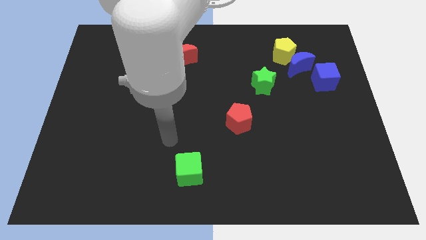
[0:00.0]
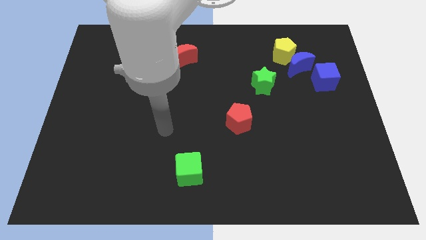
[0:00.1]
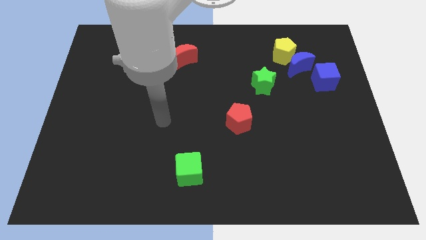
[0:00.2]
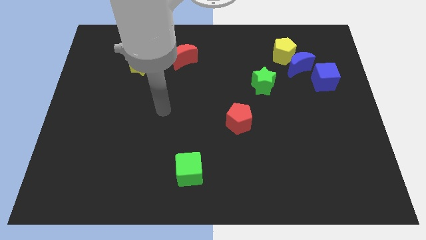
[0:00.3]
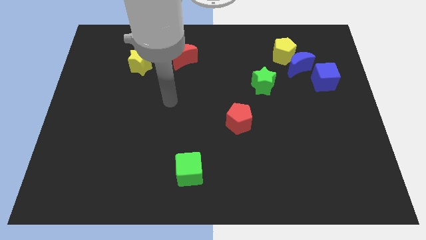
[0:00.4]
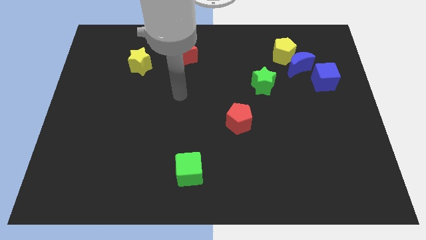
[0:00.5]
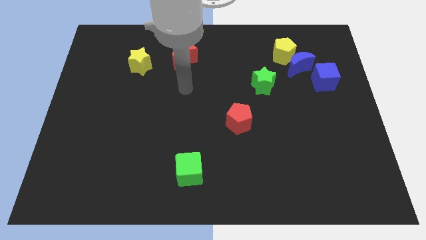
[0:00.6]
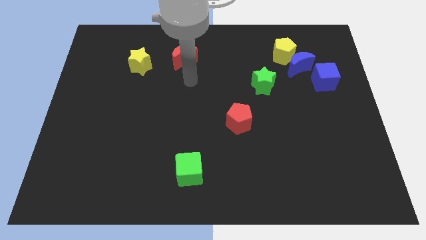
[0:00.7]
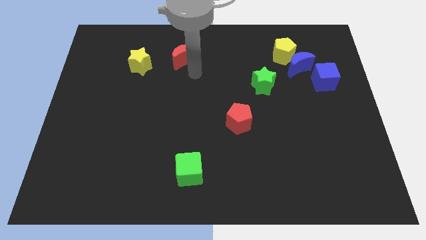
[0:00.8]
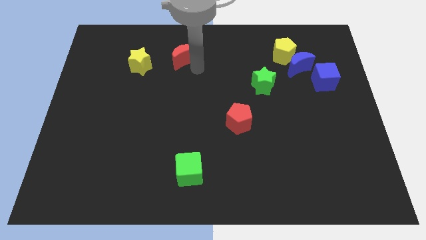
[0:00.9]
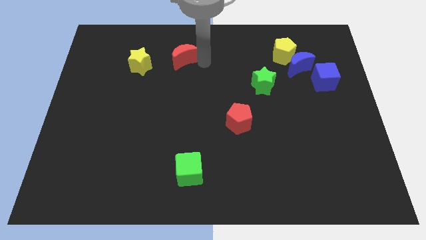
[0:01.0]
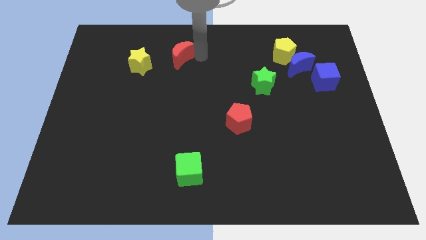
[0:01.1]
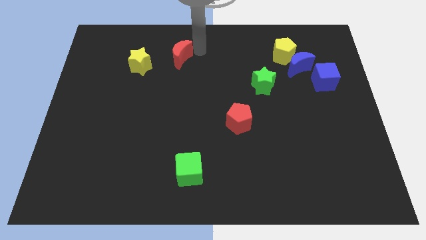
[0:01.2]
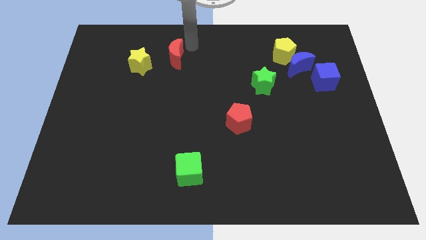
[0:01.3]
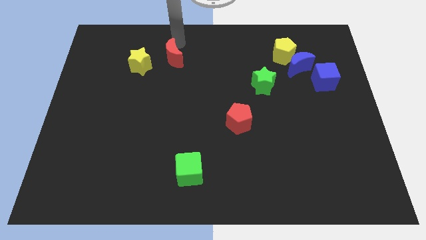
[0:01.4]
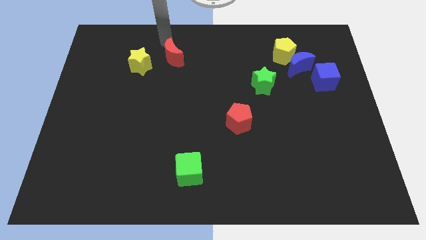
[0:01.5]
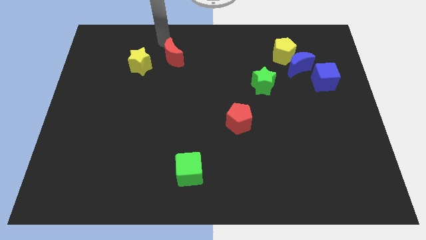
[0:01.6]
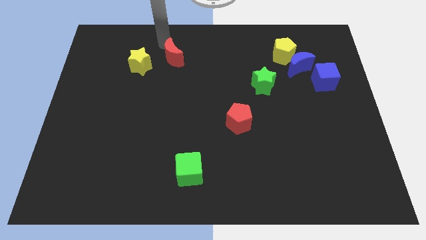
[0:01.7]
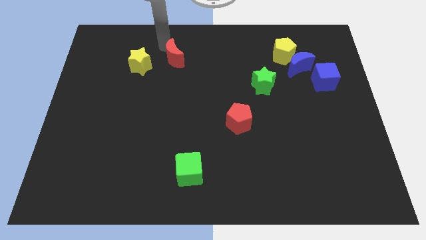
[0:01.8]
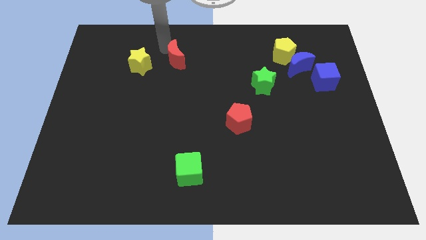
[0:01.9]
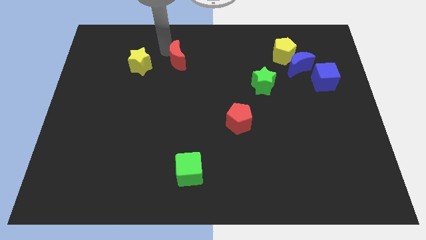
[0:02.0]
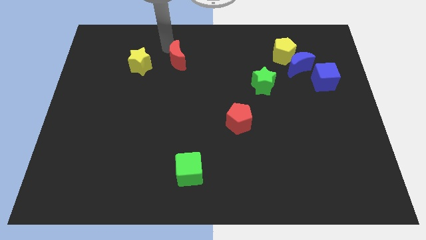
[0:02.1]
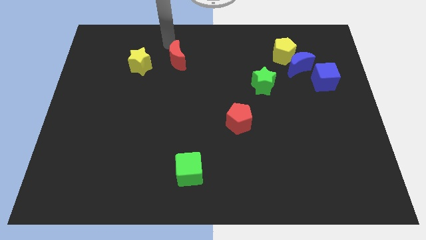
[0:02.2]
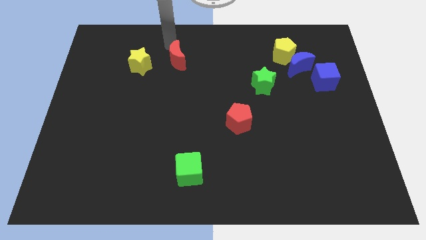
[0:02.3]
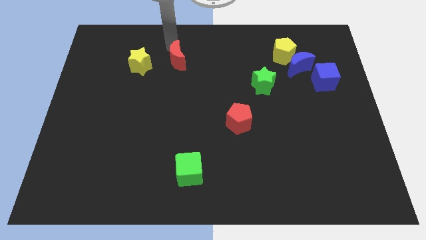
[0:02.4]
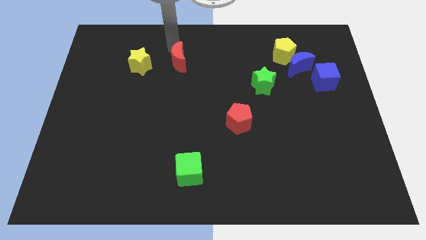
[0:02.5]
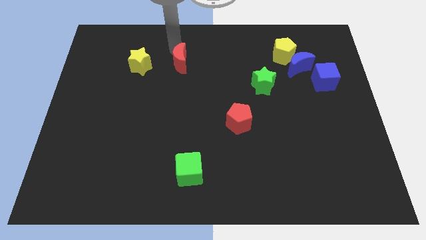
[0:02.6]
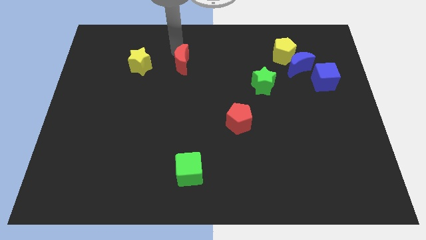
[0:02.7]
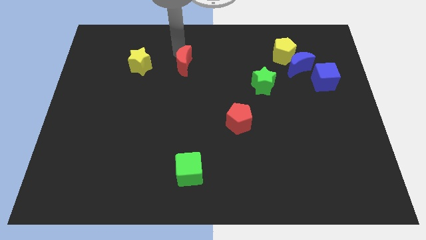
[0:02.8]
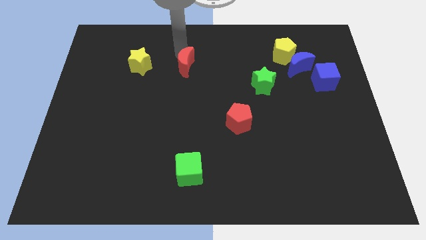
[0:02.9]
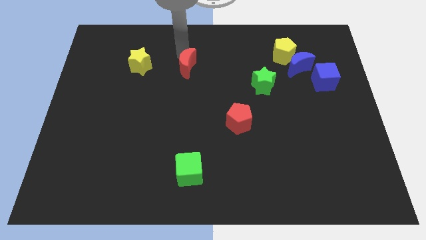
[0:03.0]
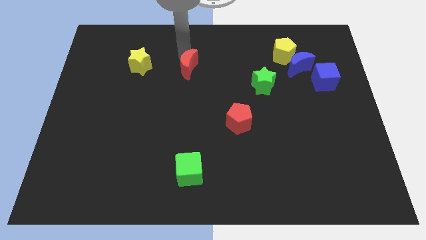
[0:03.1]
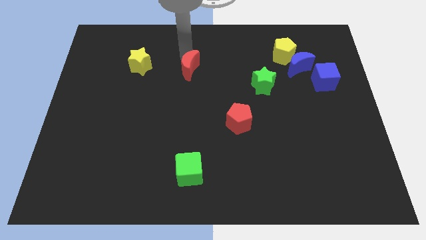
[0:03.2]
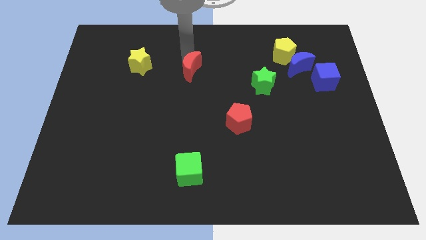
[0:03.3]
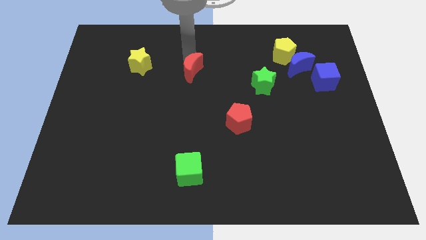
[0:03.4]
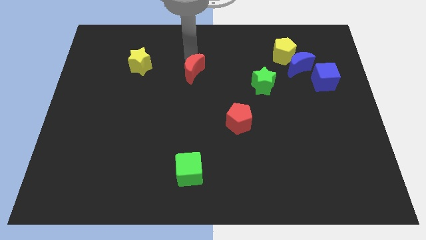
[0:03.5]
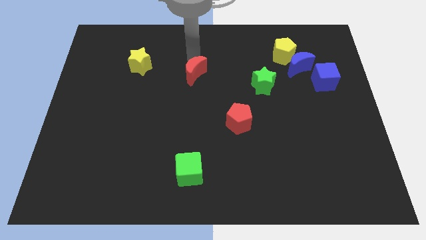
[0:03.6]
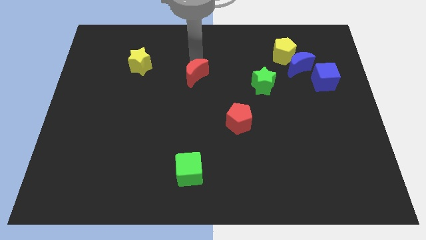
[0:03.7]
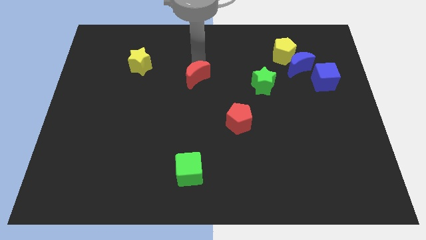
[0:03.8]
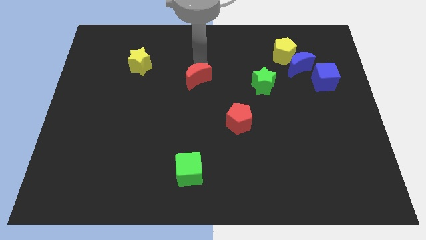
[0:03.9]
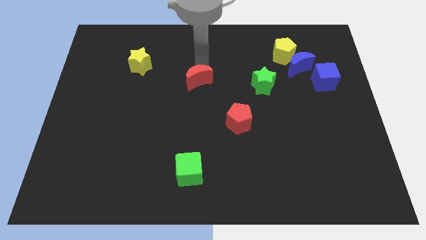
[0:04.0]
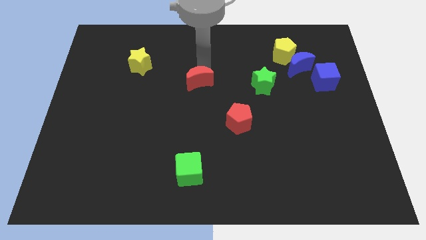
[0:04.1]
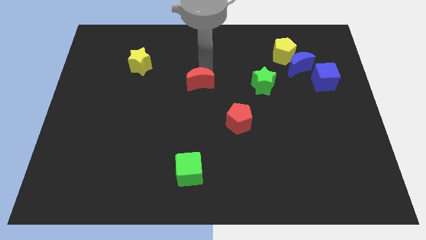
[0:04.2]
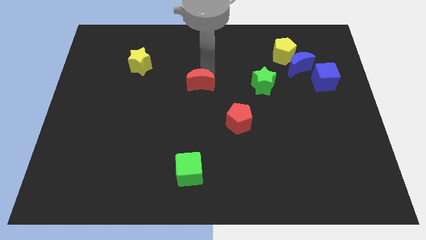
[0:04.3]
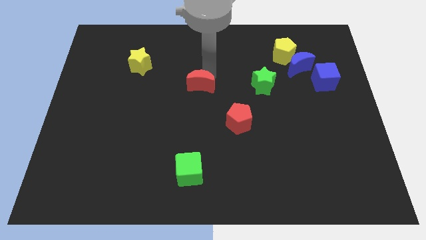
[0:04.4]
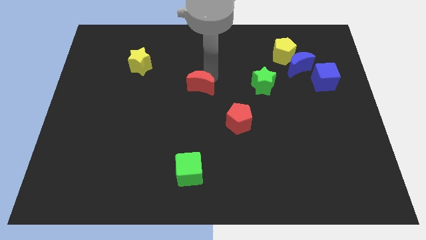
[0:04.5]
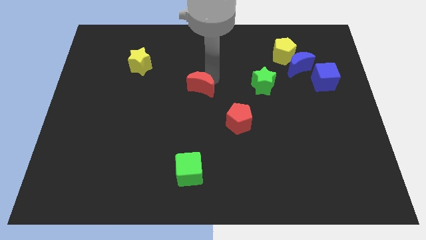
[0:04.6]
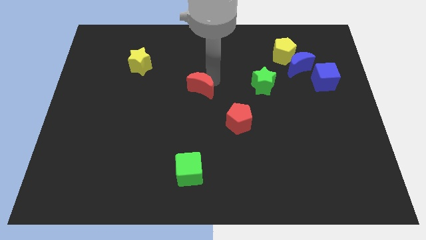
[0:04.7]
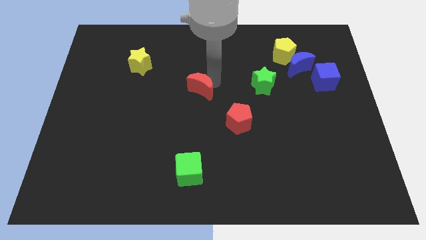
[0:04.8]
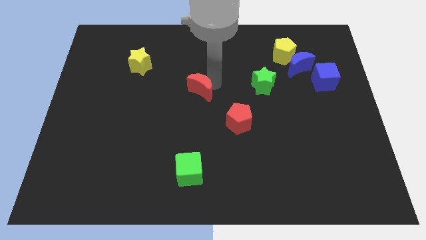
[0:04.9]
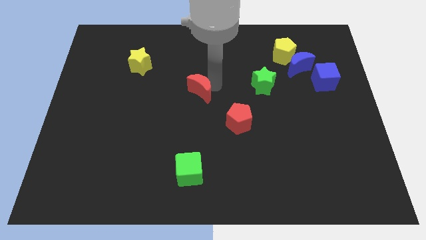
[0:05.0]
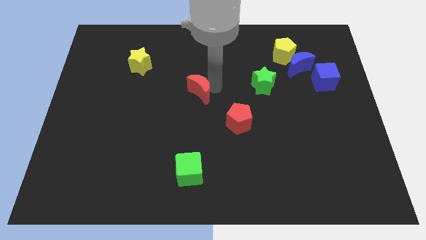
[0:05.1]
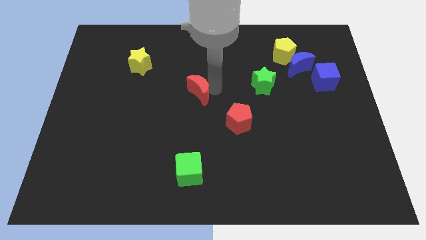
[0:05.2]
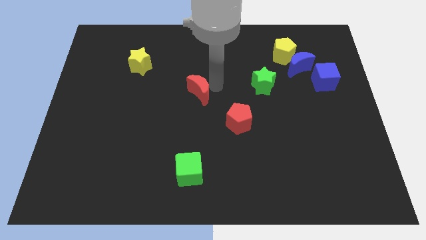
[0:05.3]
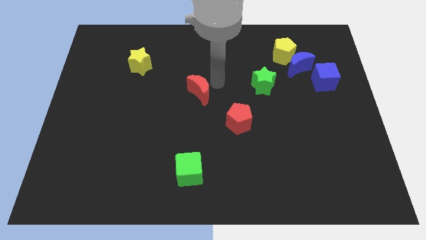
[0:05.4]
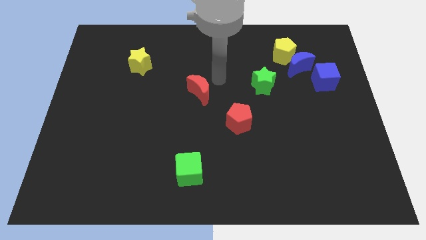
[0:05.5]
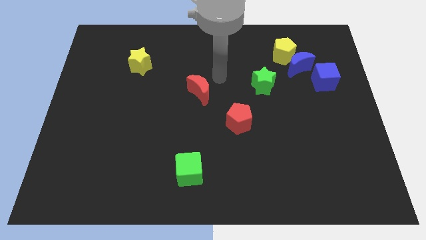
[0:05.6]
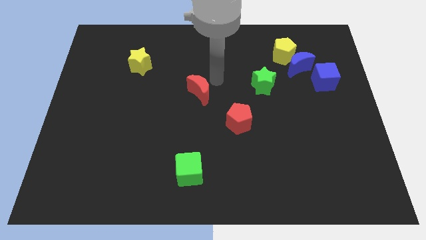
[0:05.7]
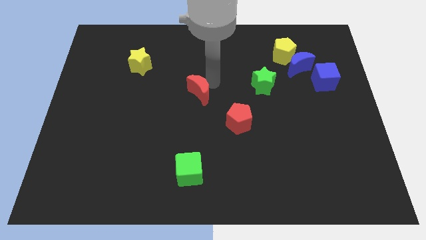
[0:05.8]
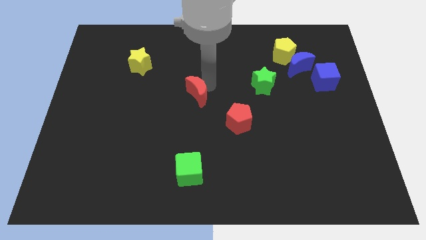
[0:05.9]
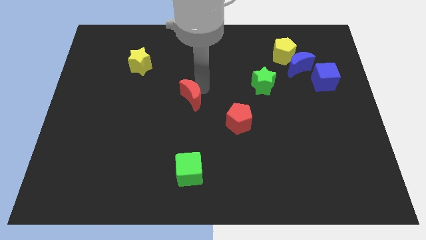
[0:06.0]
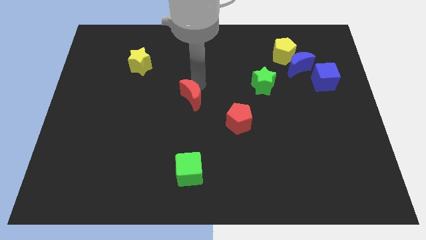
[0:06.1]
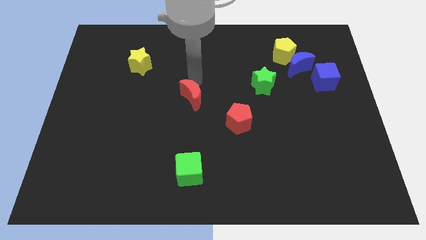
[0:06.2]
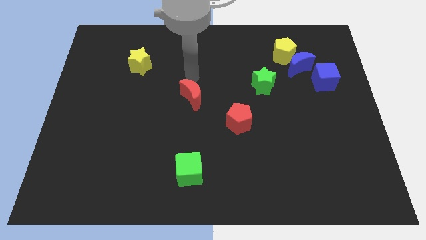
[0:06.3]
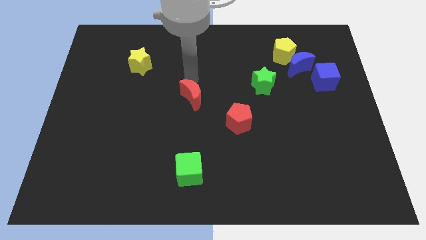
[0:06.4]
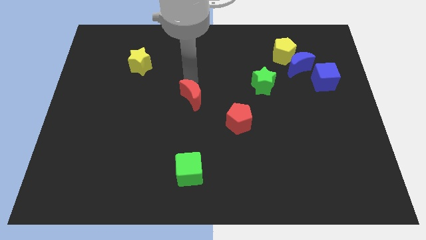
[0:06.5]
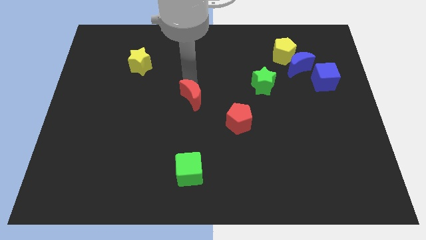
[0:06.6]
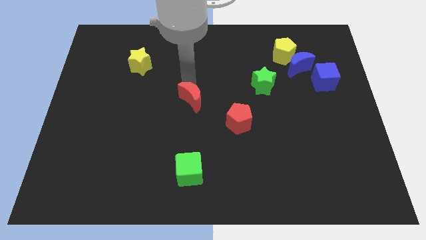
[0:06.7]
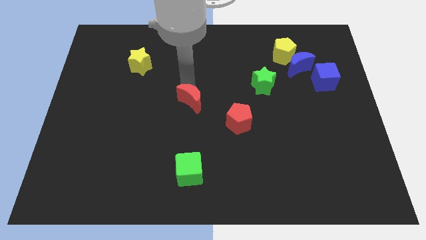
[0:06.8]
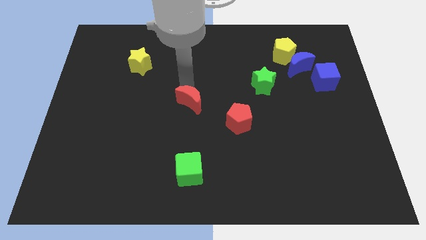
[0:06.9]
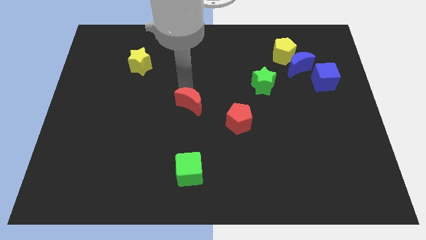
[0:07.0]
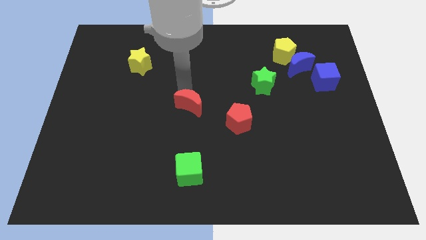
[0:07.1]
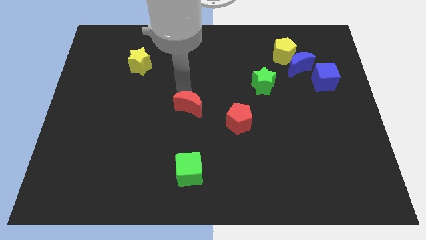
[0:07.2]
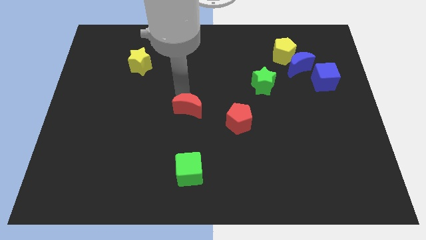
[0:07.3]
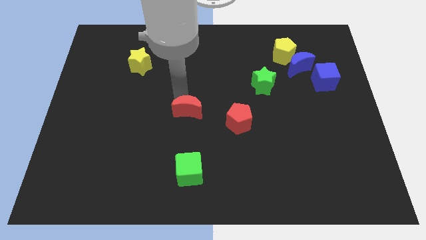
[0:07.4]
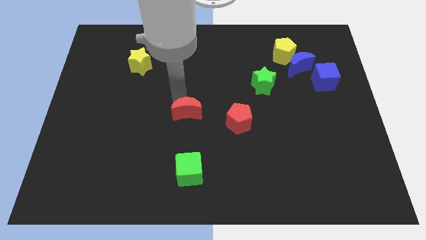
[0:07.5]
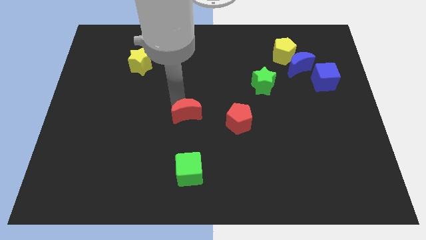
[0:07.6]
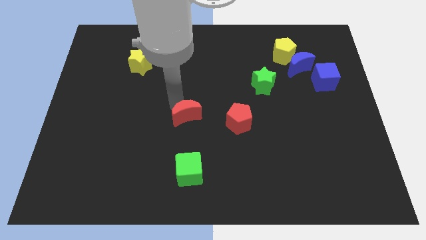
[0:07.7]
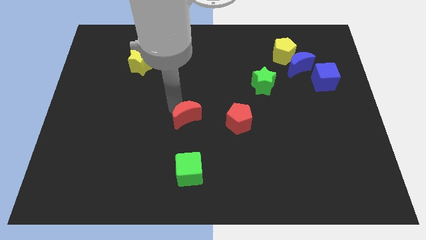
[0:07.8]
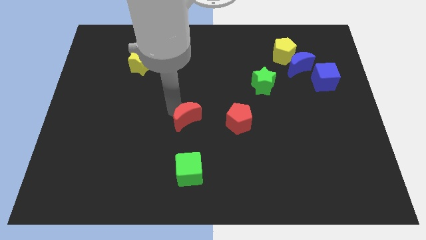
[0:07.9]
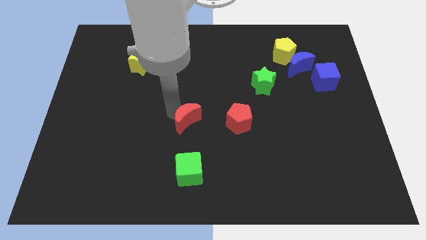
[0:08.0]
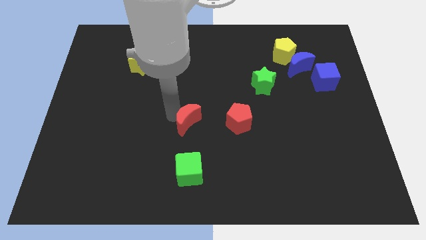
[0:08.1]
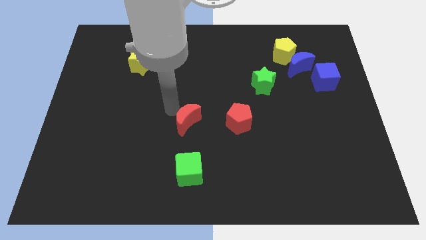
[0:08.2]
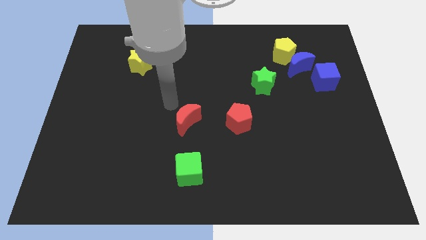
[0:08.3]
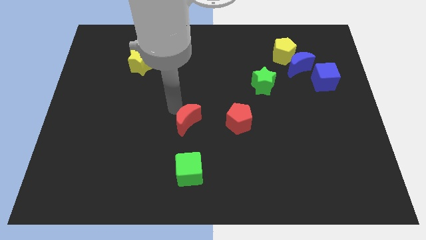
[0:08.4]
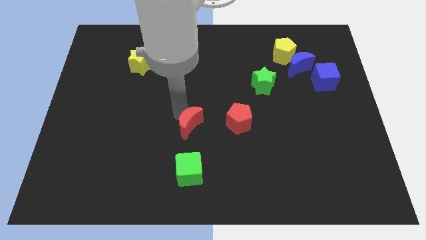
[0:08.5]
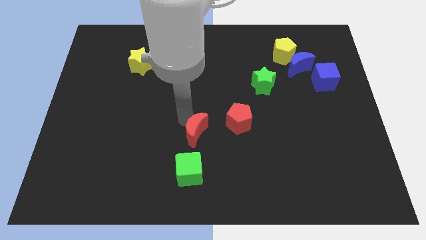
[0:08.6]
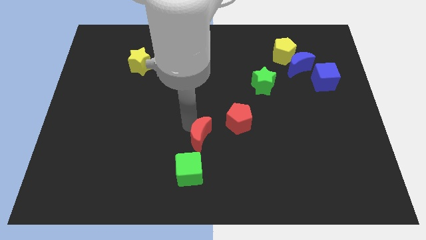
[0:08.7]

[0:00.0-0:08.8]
slide the red moon to the top right of the green cube
